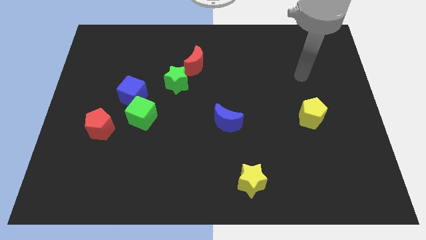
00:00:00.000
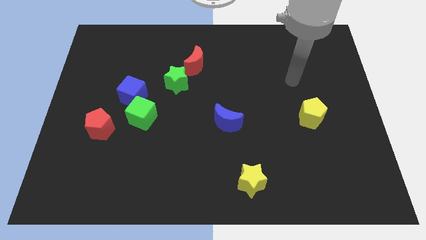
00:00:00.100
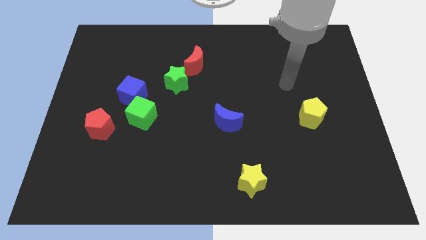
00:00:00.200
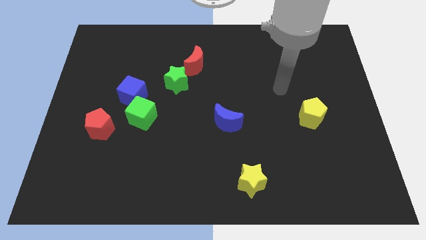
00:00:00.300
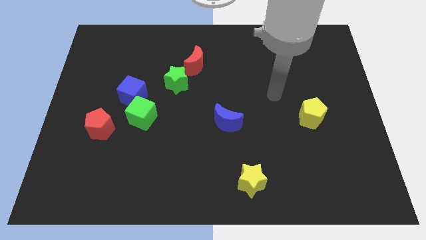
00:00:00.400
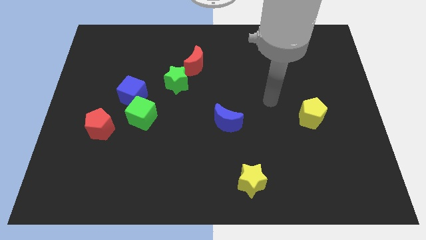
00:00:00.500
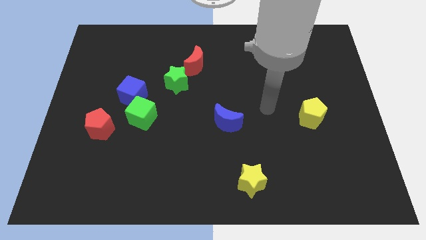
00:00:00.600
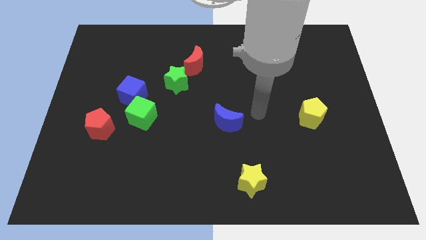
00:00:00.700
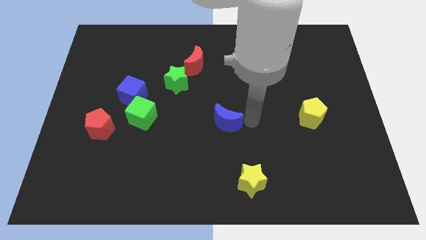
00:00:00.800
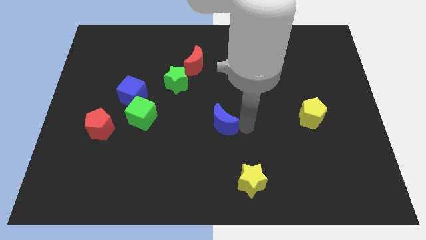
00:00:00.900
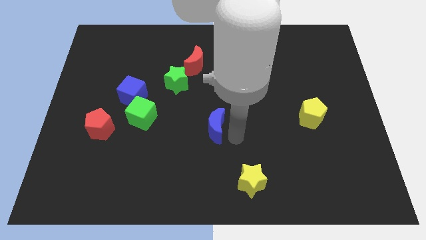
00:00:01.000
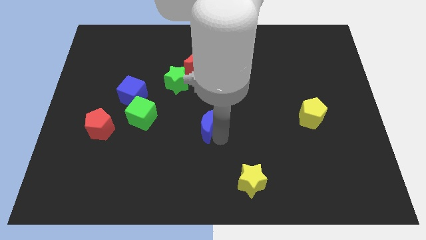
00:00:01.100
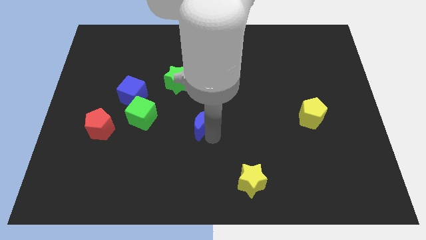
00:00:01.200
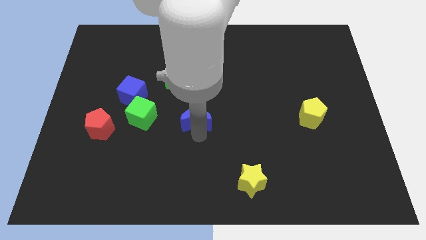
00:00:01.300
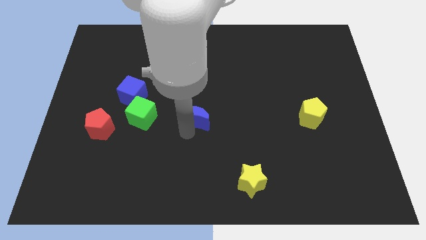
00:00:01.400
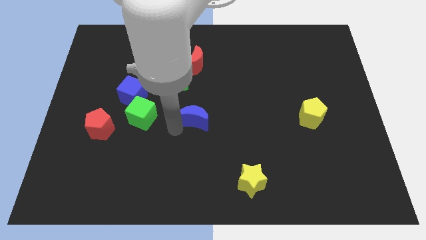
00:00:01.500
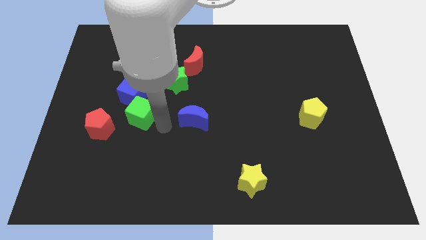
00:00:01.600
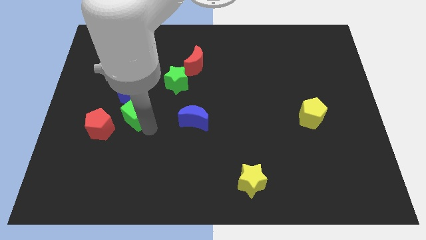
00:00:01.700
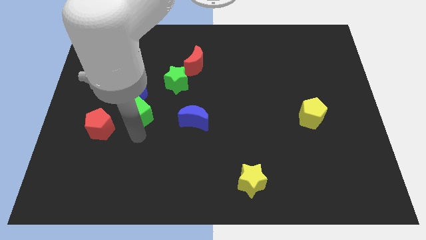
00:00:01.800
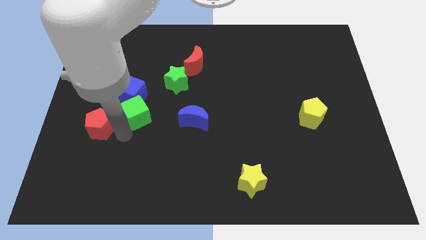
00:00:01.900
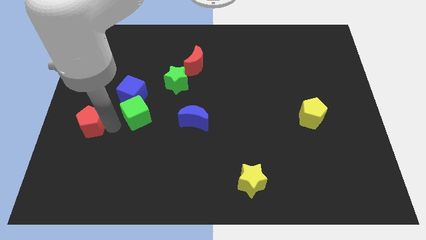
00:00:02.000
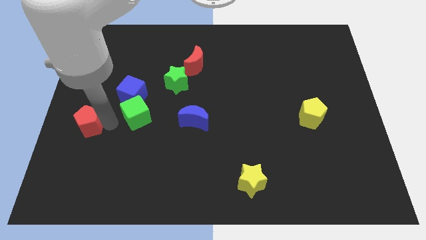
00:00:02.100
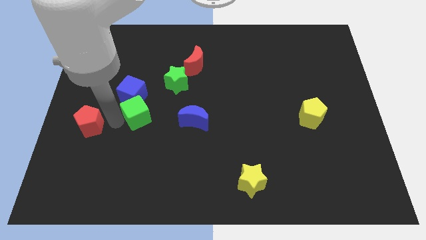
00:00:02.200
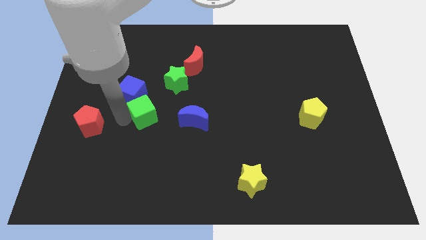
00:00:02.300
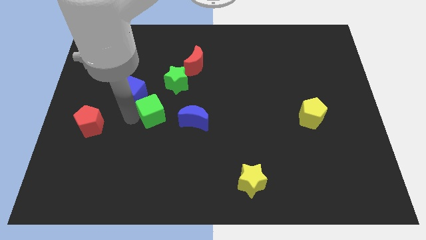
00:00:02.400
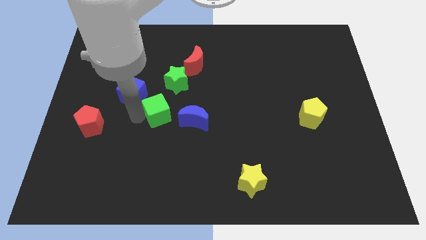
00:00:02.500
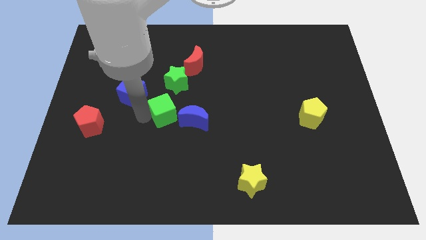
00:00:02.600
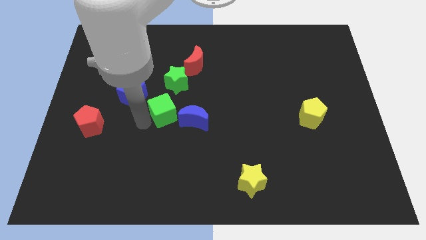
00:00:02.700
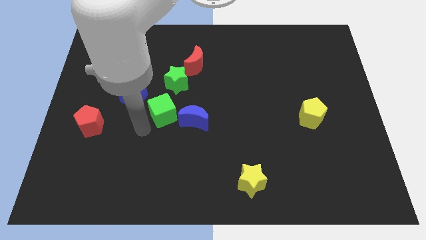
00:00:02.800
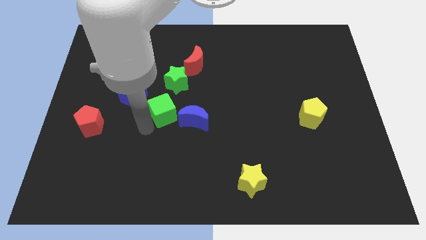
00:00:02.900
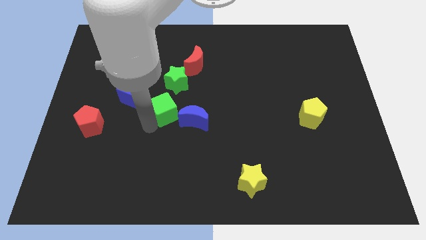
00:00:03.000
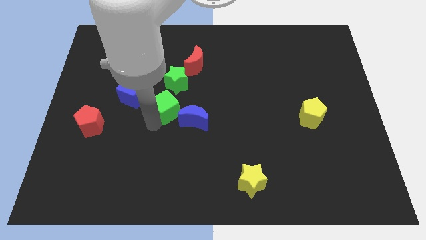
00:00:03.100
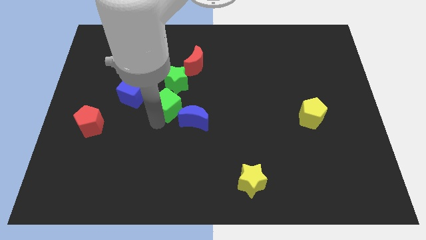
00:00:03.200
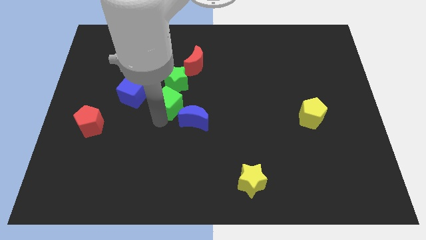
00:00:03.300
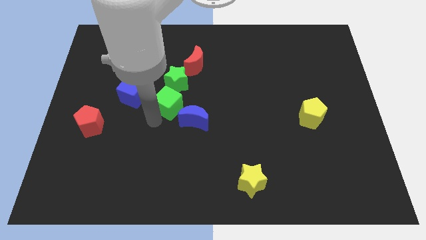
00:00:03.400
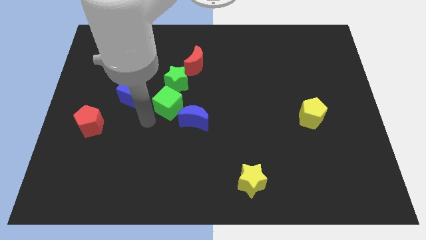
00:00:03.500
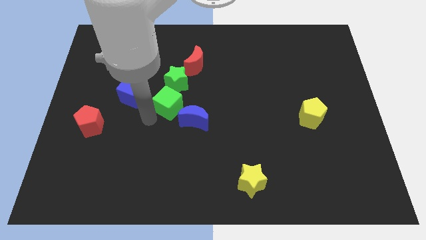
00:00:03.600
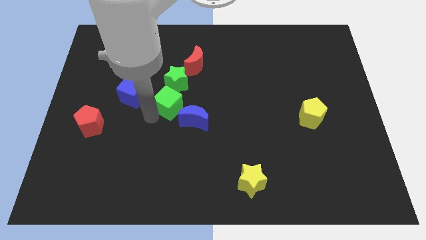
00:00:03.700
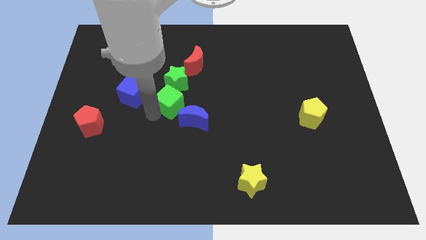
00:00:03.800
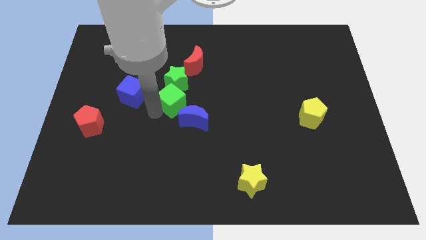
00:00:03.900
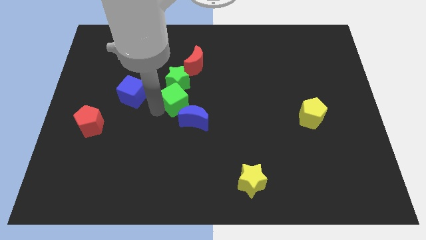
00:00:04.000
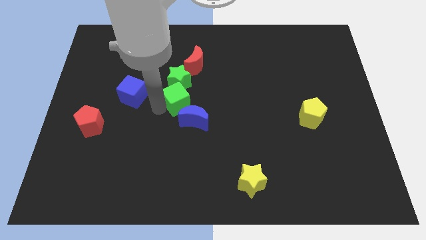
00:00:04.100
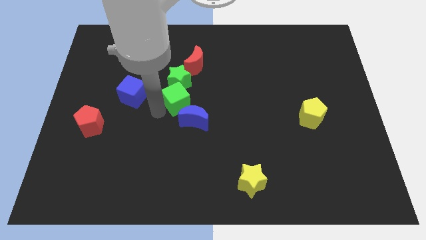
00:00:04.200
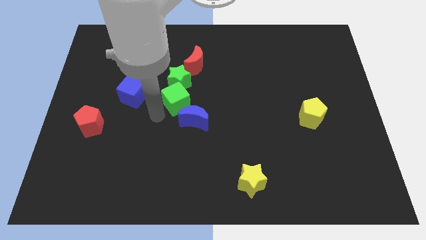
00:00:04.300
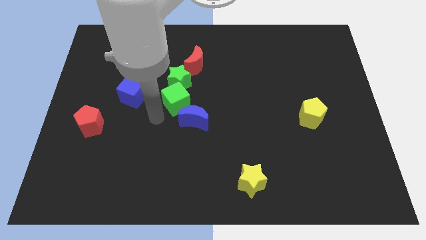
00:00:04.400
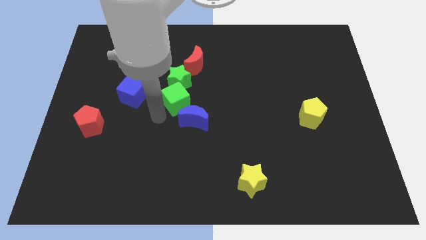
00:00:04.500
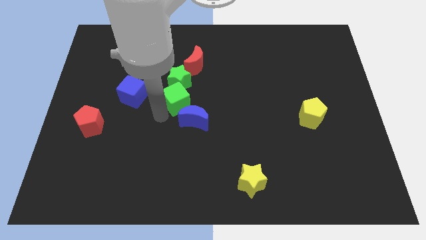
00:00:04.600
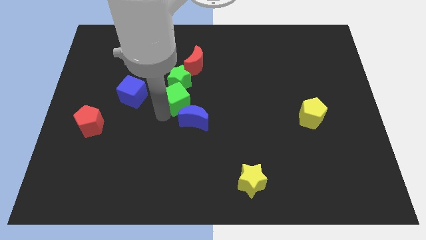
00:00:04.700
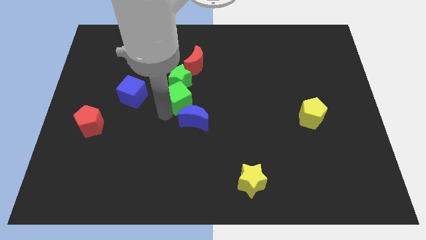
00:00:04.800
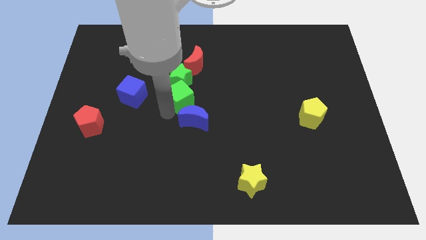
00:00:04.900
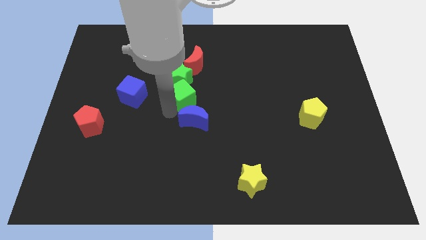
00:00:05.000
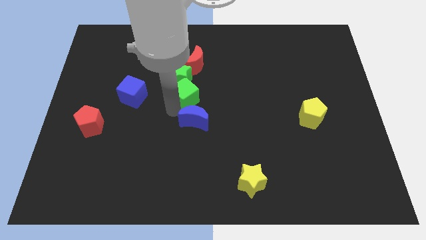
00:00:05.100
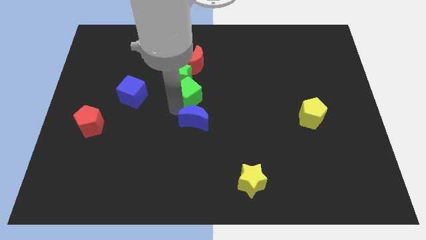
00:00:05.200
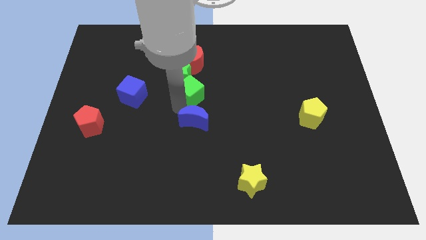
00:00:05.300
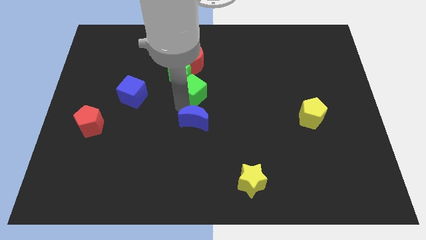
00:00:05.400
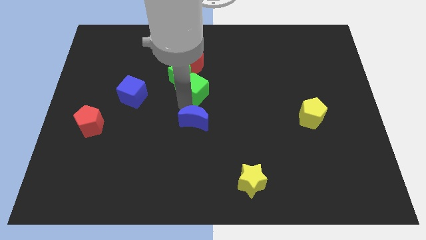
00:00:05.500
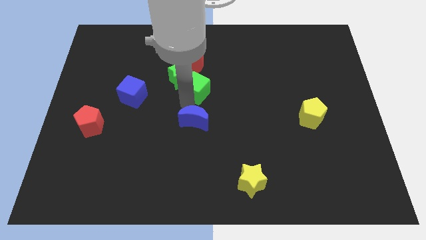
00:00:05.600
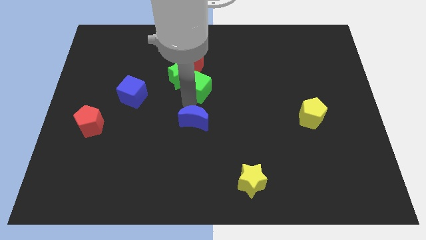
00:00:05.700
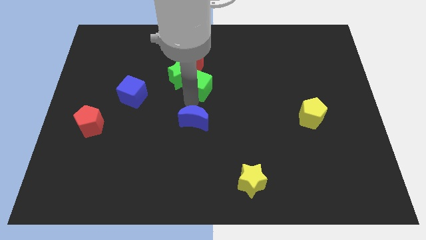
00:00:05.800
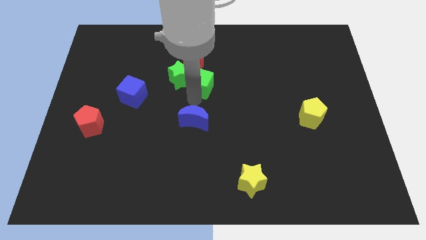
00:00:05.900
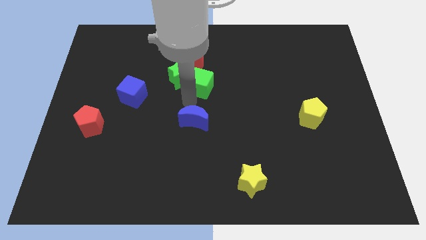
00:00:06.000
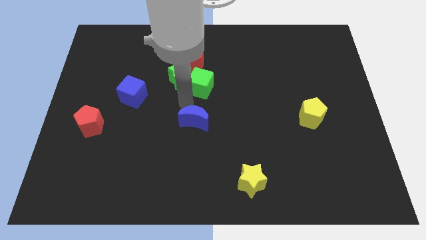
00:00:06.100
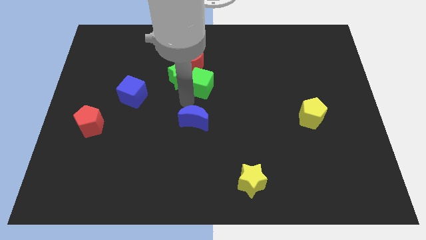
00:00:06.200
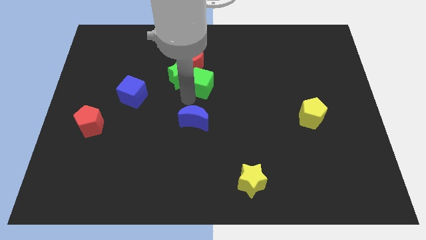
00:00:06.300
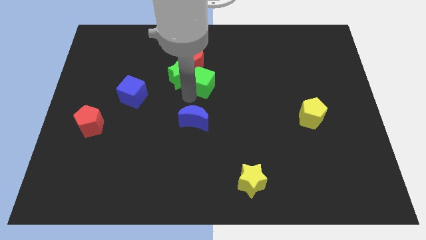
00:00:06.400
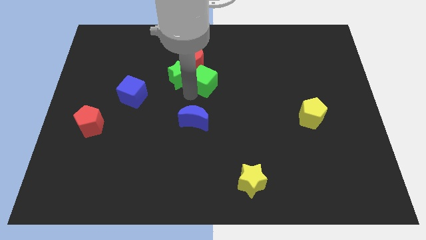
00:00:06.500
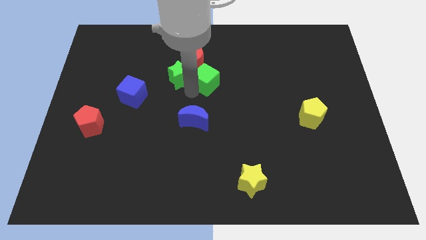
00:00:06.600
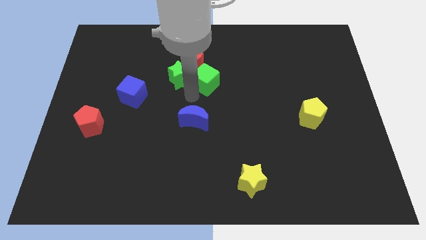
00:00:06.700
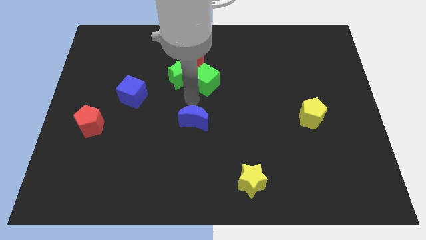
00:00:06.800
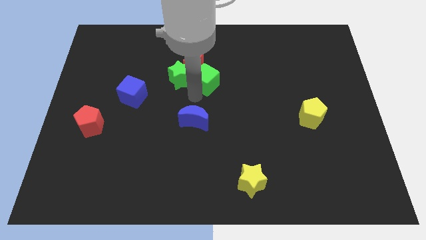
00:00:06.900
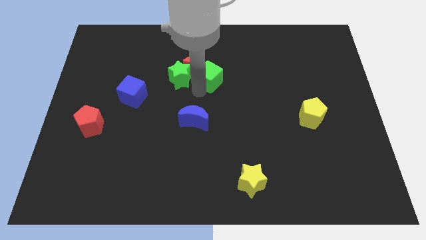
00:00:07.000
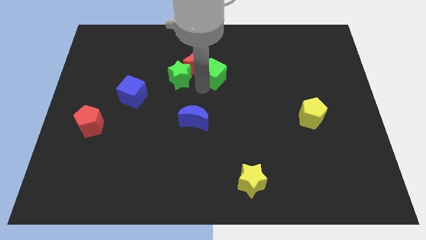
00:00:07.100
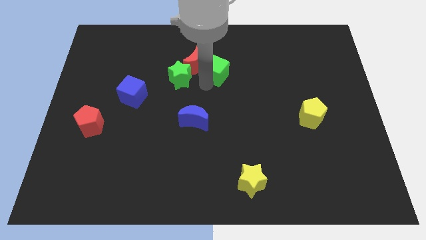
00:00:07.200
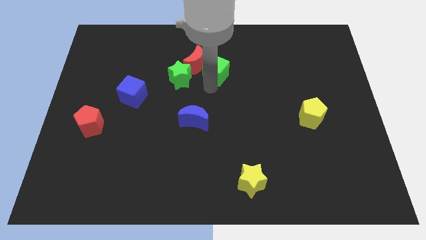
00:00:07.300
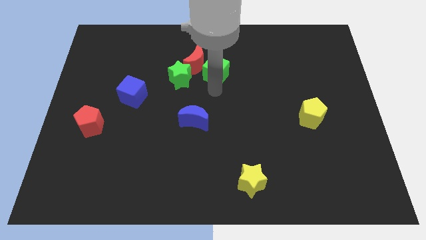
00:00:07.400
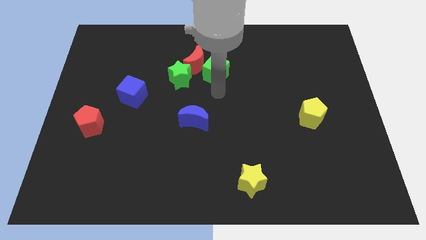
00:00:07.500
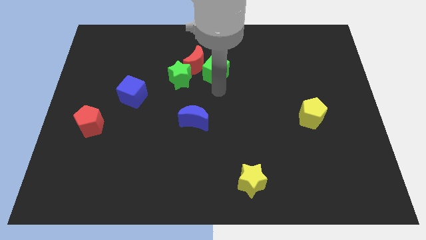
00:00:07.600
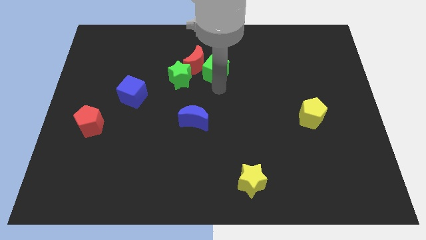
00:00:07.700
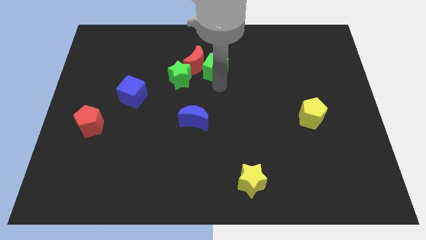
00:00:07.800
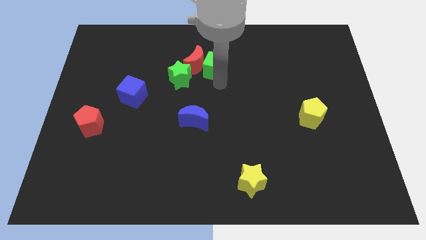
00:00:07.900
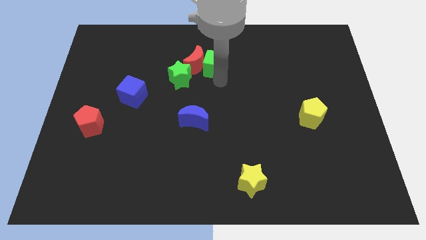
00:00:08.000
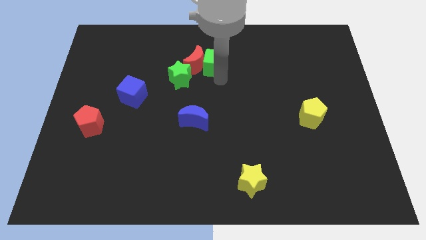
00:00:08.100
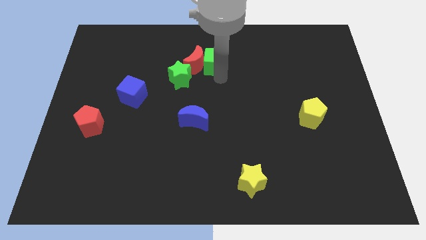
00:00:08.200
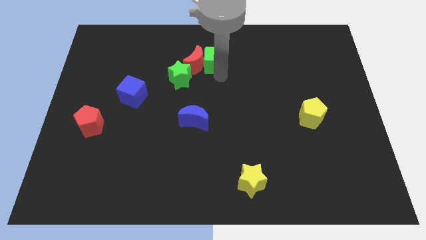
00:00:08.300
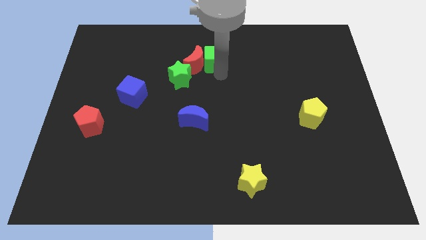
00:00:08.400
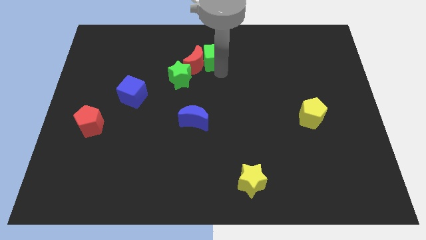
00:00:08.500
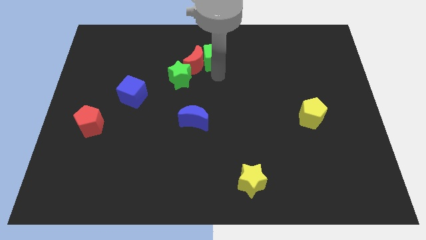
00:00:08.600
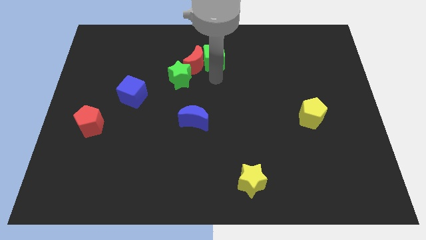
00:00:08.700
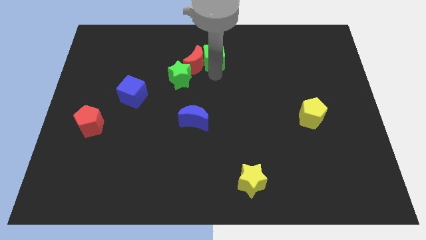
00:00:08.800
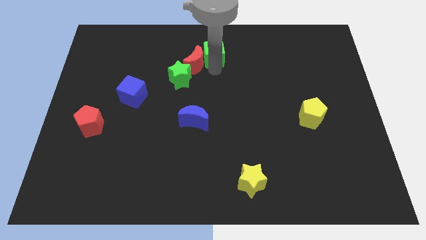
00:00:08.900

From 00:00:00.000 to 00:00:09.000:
slide the green cube to the top
